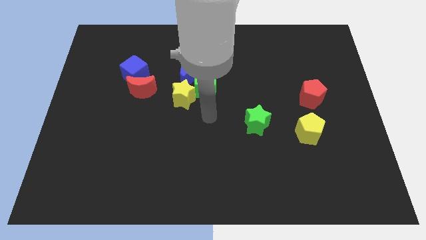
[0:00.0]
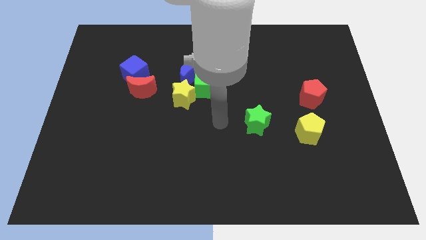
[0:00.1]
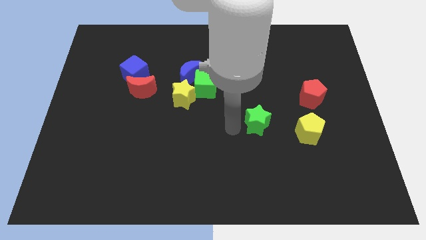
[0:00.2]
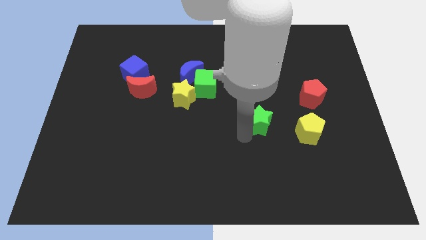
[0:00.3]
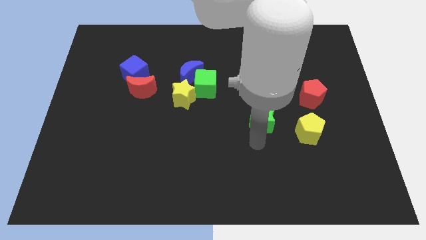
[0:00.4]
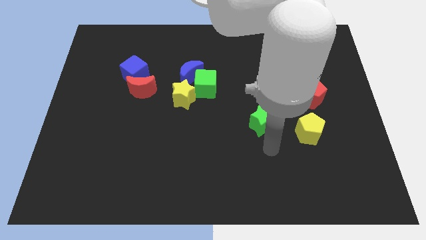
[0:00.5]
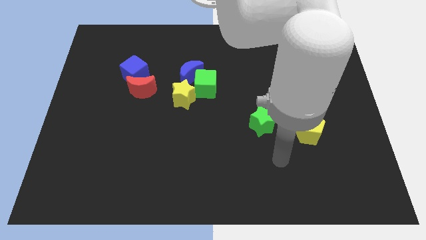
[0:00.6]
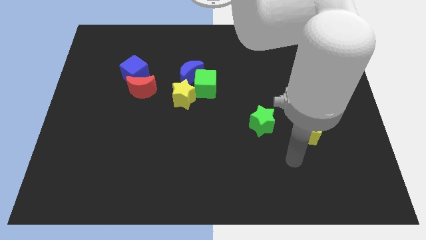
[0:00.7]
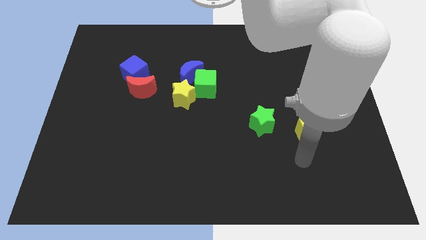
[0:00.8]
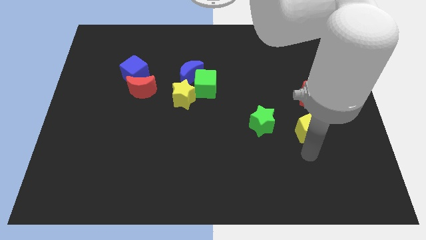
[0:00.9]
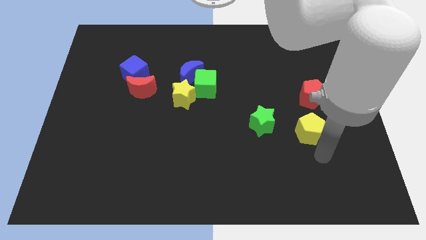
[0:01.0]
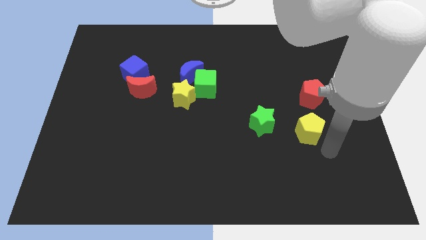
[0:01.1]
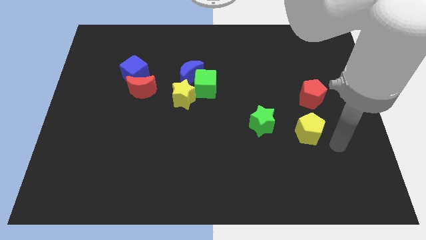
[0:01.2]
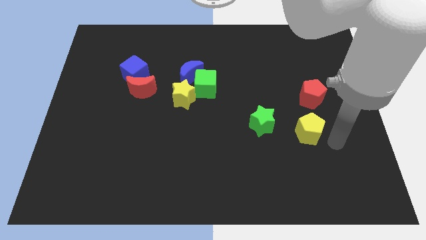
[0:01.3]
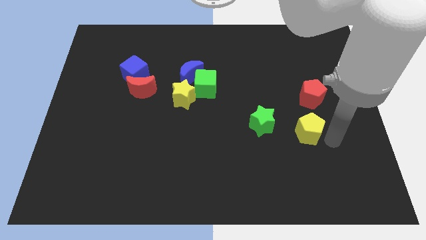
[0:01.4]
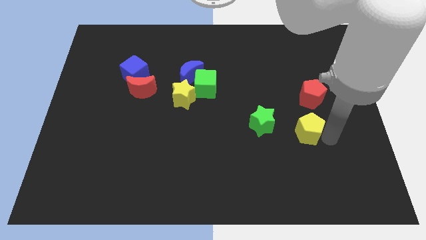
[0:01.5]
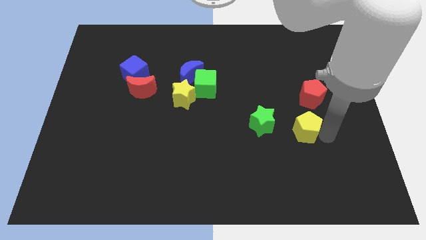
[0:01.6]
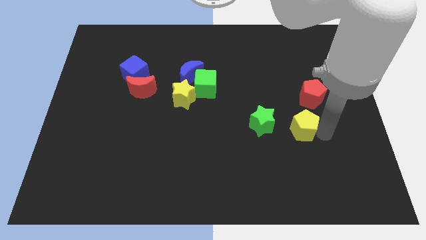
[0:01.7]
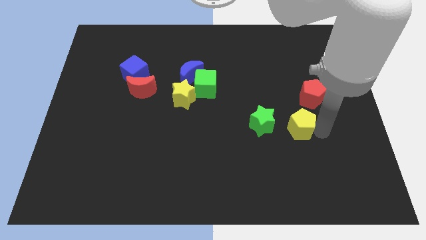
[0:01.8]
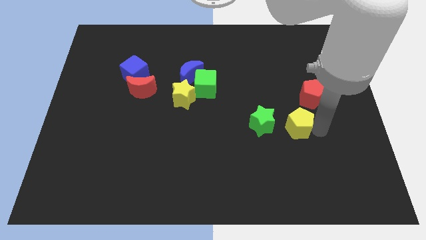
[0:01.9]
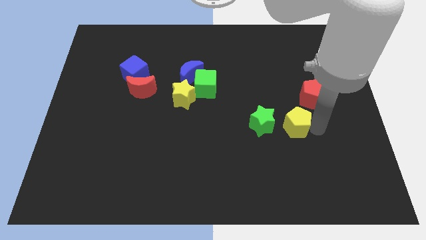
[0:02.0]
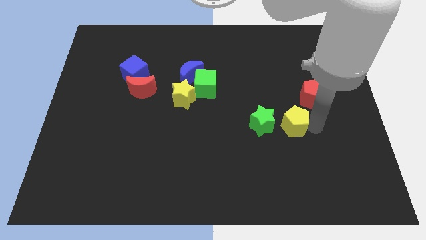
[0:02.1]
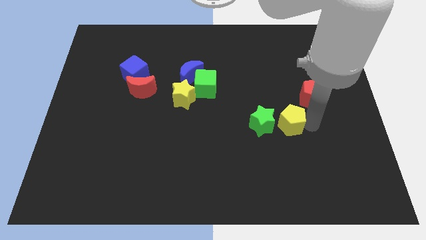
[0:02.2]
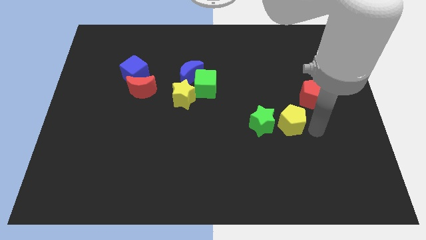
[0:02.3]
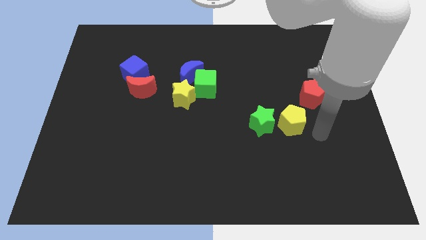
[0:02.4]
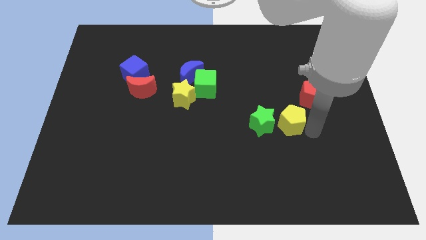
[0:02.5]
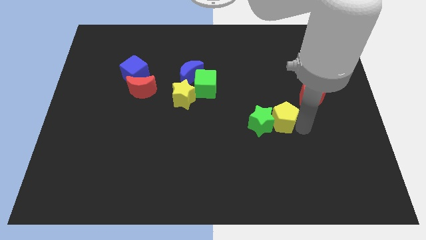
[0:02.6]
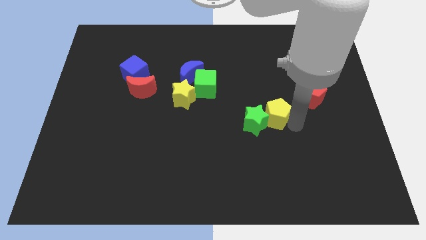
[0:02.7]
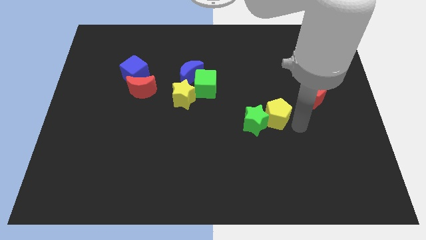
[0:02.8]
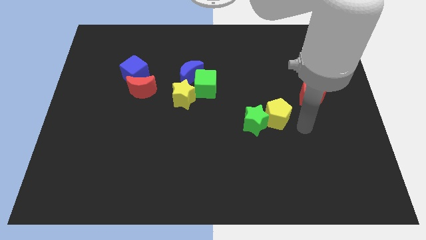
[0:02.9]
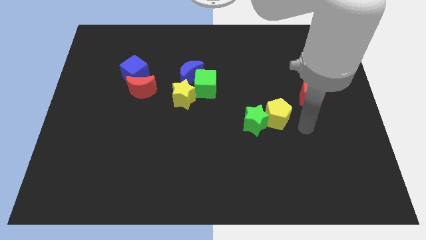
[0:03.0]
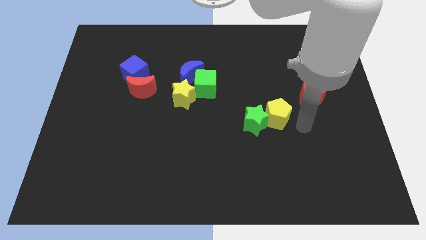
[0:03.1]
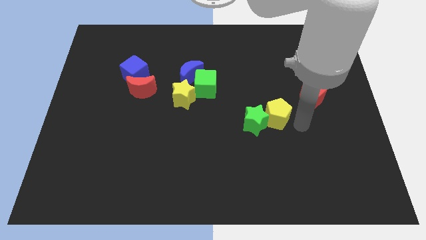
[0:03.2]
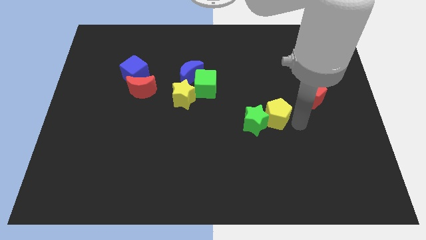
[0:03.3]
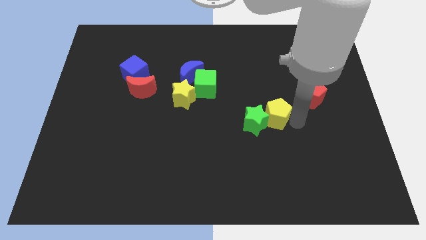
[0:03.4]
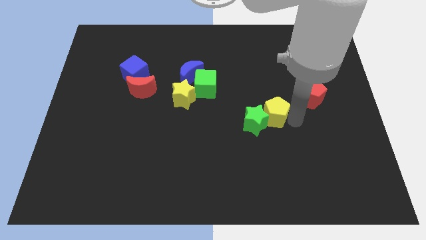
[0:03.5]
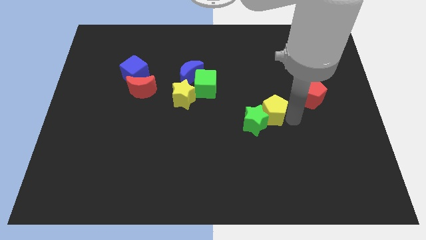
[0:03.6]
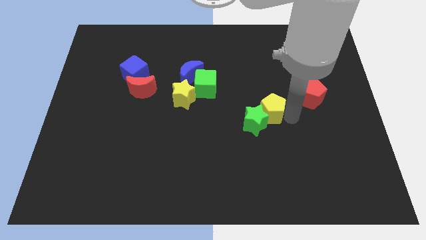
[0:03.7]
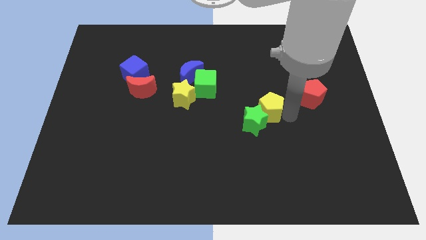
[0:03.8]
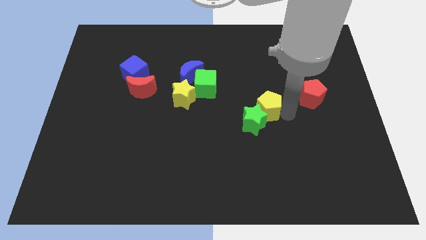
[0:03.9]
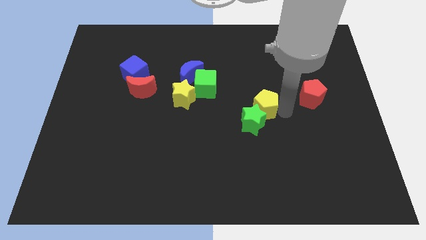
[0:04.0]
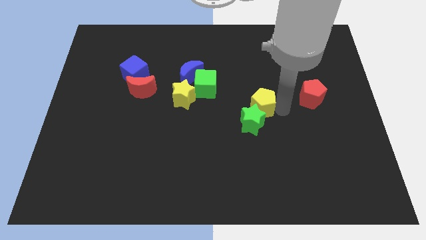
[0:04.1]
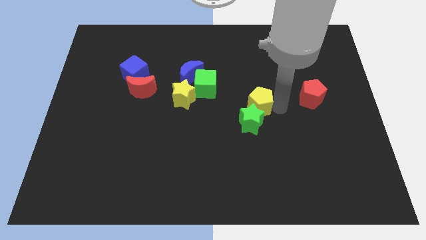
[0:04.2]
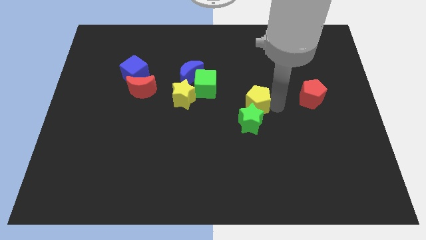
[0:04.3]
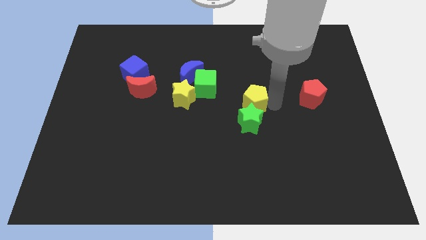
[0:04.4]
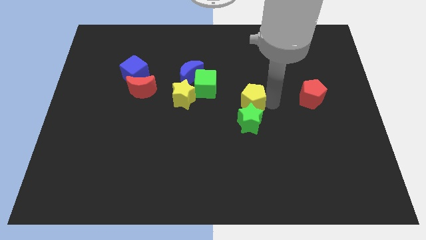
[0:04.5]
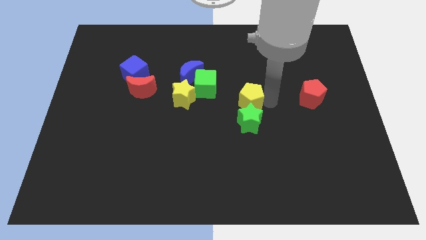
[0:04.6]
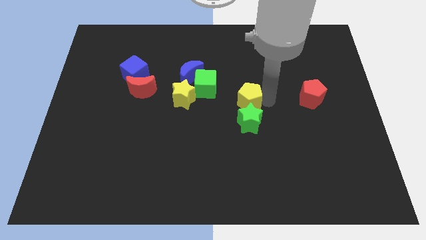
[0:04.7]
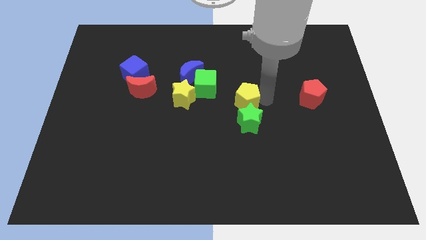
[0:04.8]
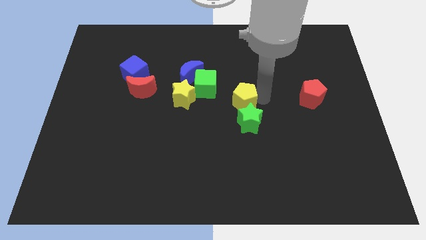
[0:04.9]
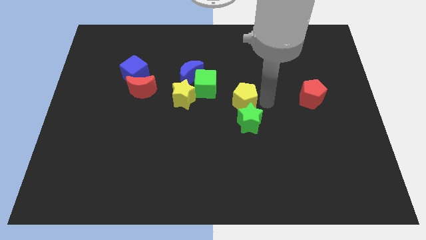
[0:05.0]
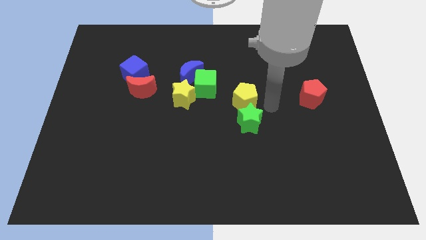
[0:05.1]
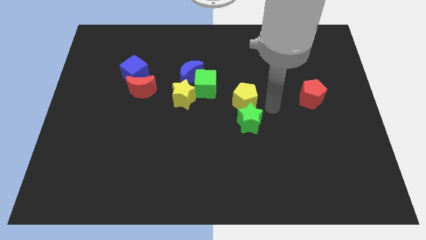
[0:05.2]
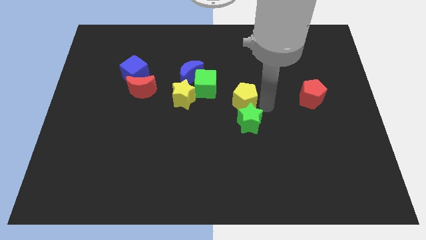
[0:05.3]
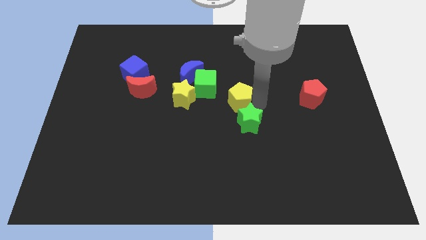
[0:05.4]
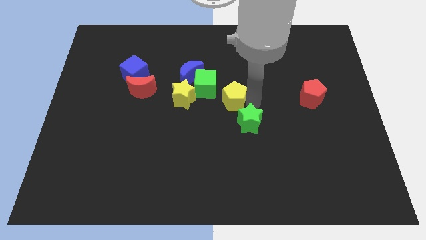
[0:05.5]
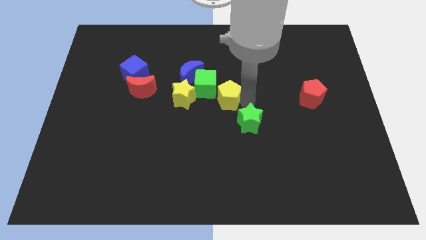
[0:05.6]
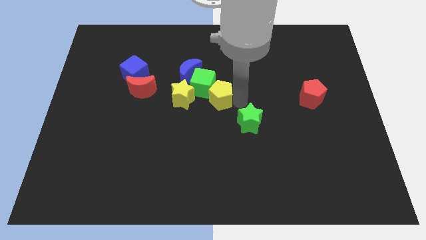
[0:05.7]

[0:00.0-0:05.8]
push the yellow pentagon towards the green cube

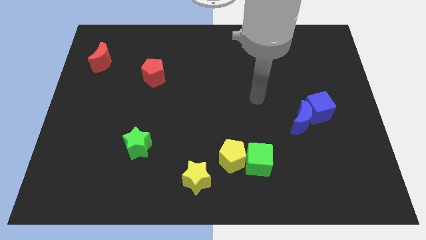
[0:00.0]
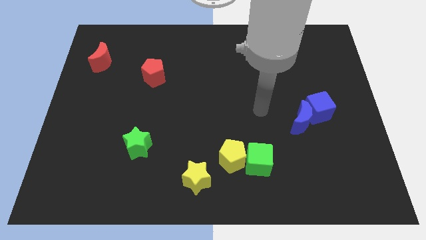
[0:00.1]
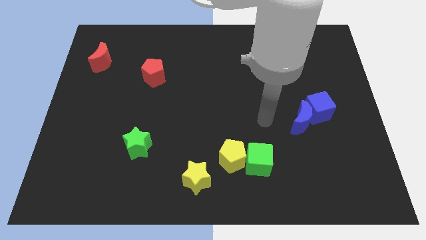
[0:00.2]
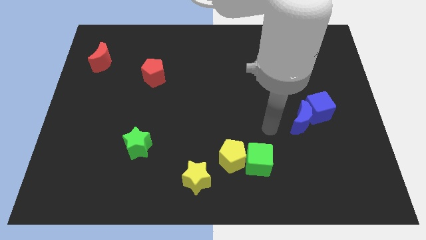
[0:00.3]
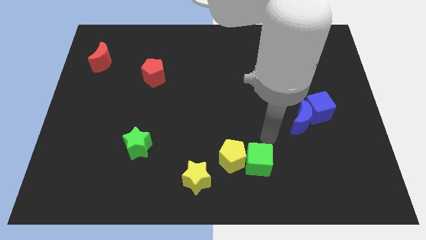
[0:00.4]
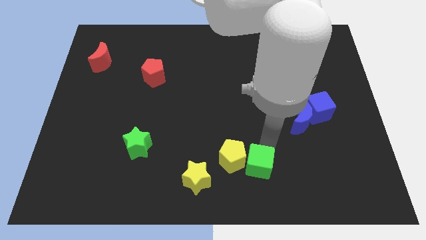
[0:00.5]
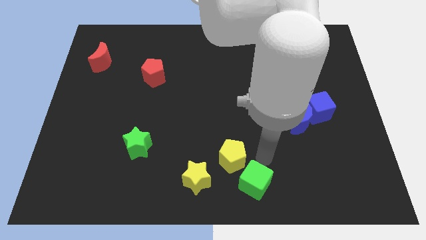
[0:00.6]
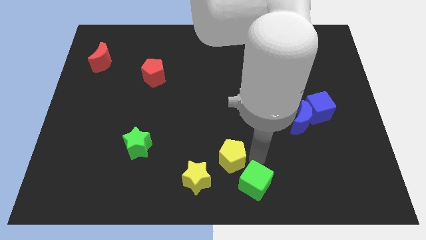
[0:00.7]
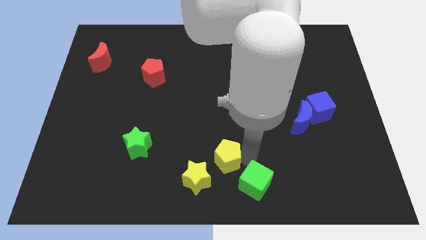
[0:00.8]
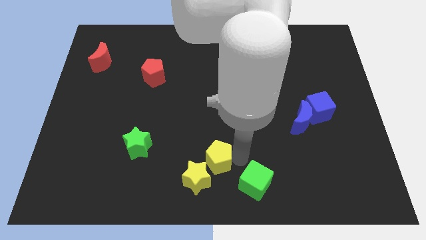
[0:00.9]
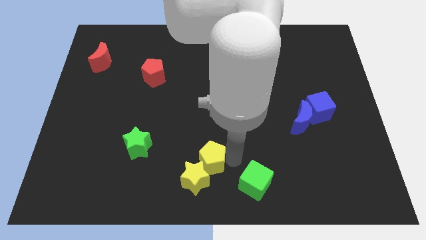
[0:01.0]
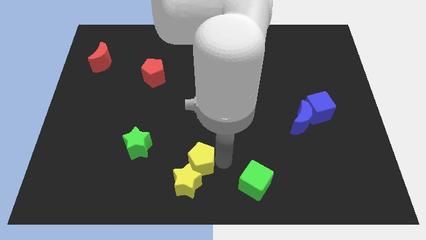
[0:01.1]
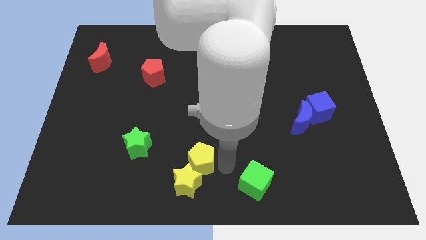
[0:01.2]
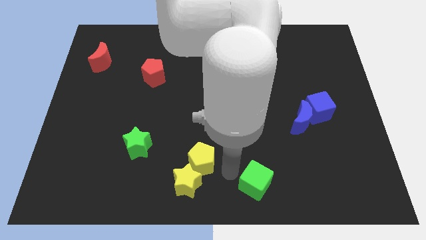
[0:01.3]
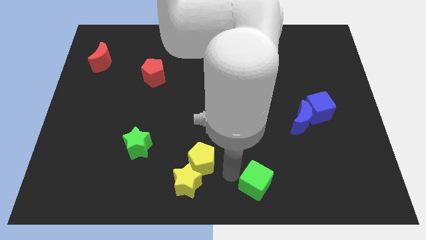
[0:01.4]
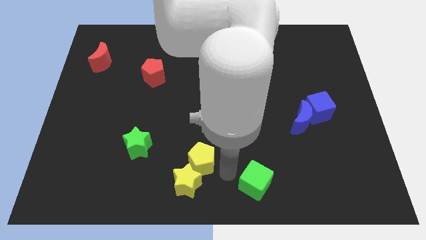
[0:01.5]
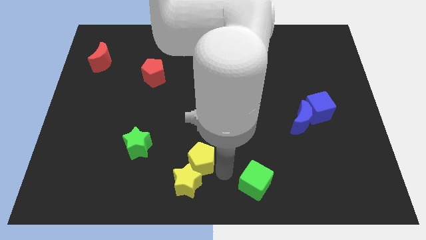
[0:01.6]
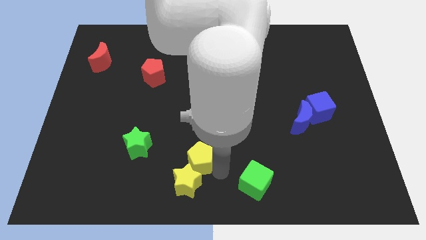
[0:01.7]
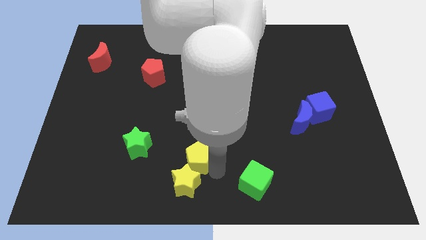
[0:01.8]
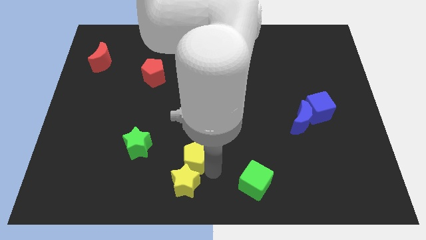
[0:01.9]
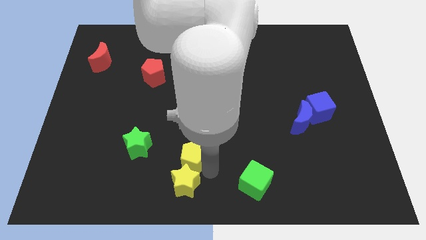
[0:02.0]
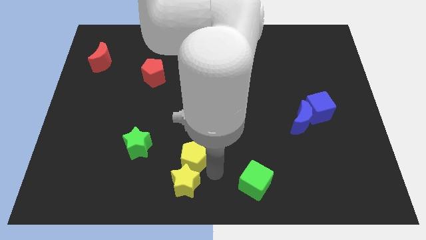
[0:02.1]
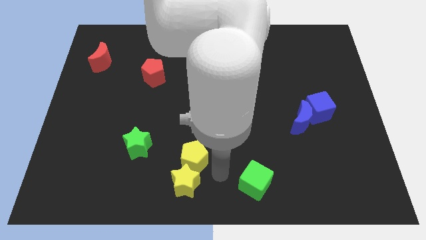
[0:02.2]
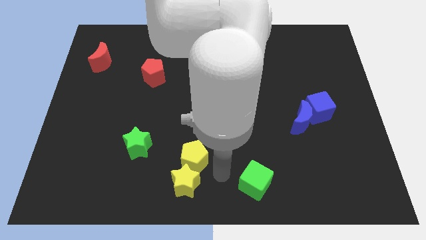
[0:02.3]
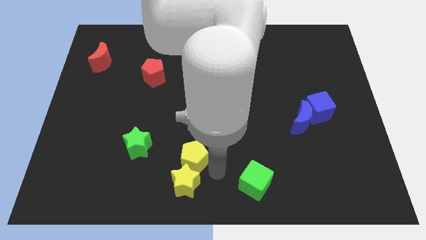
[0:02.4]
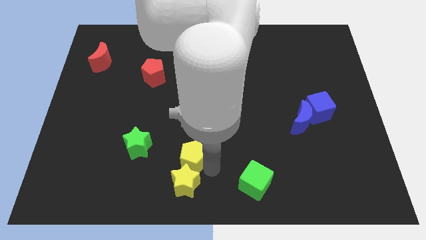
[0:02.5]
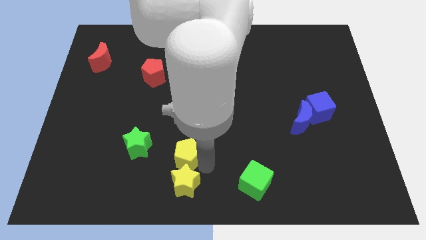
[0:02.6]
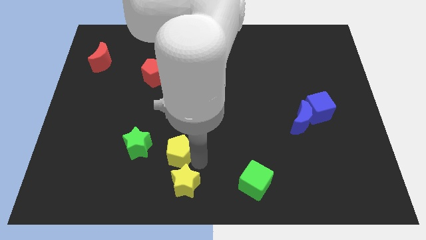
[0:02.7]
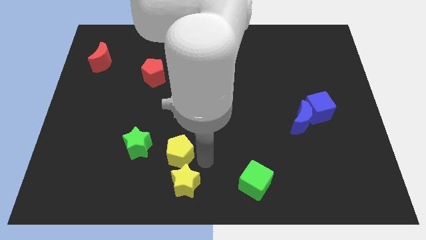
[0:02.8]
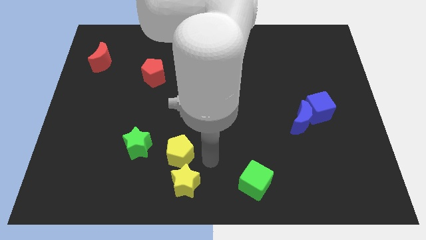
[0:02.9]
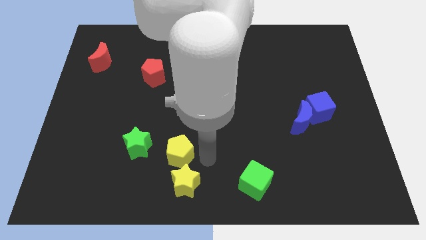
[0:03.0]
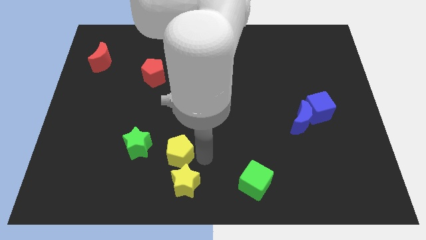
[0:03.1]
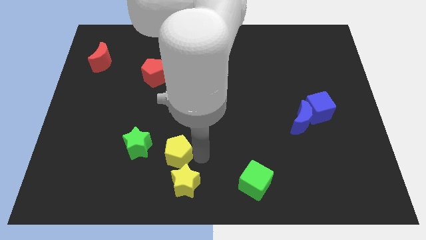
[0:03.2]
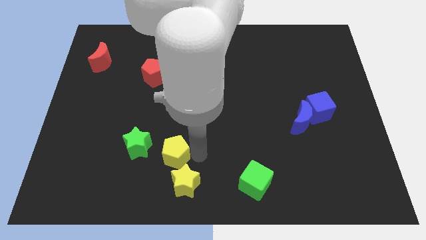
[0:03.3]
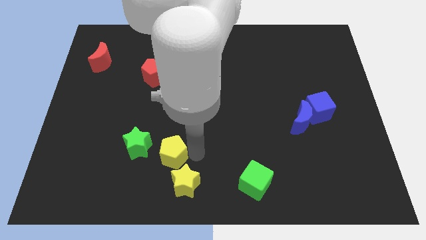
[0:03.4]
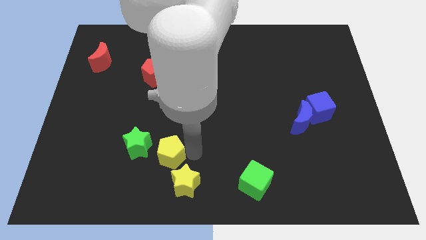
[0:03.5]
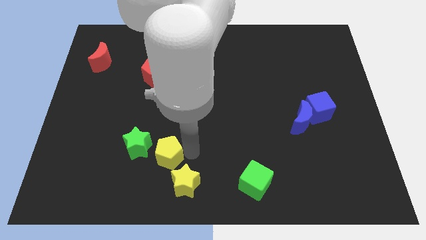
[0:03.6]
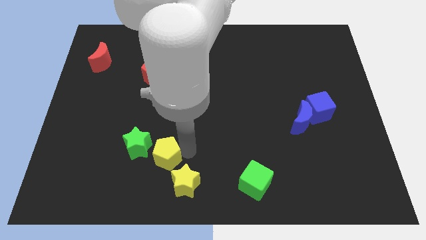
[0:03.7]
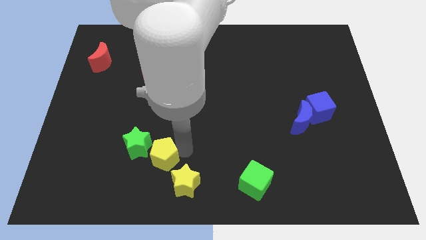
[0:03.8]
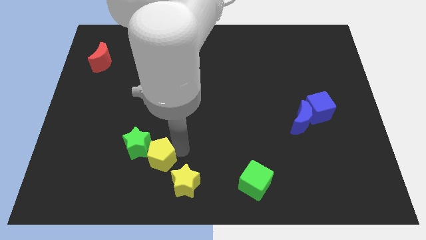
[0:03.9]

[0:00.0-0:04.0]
slide the yellow pentagon to the green star
